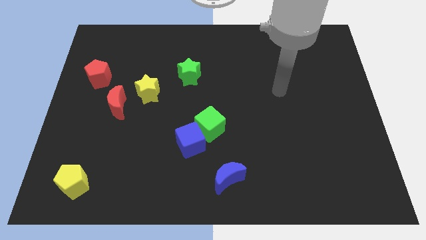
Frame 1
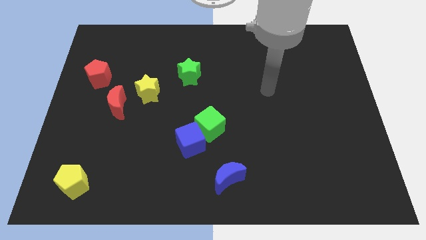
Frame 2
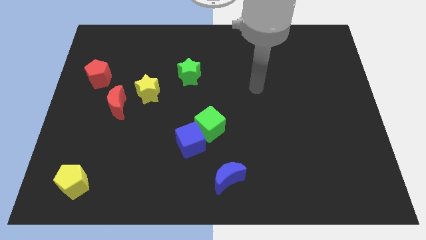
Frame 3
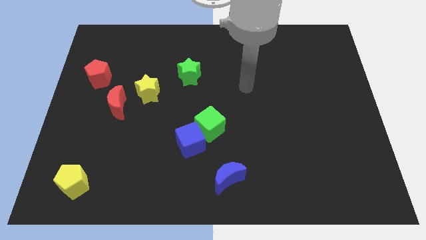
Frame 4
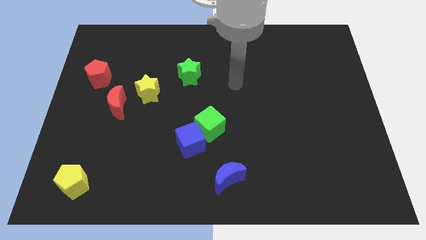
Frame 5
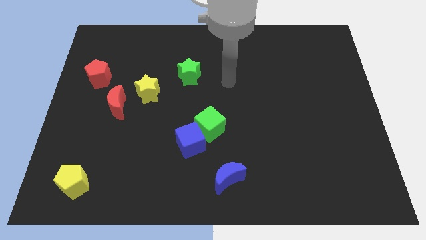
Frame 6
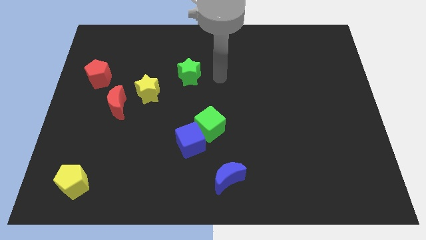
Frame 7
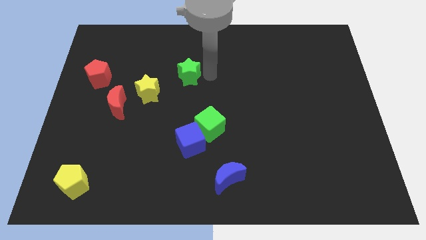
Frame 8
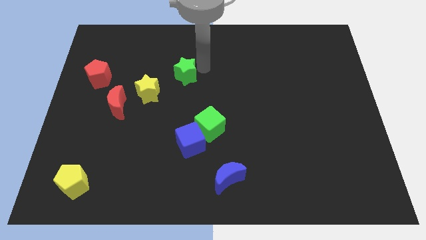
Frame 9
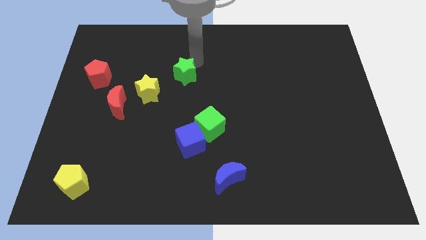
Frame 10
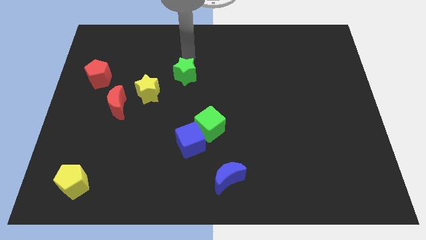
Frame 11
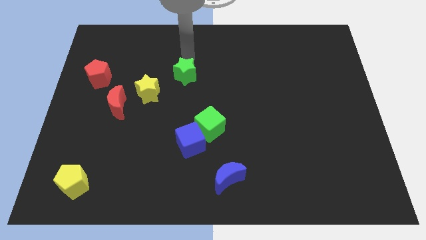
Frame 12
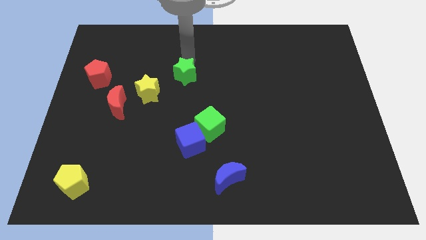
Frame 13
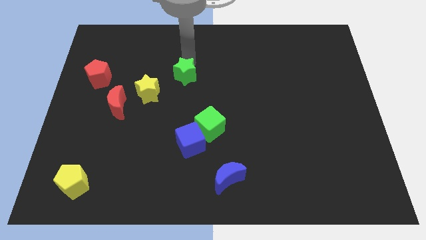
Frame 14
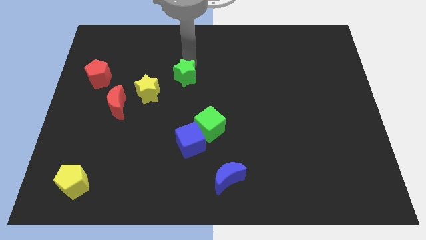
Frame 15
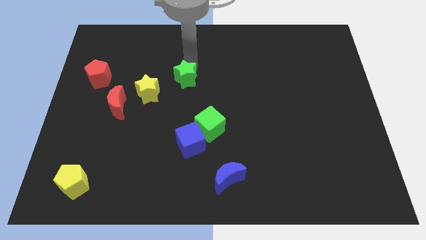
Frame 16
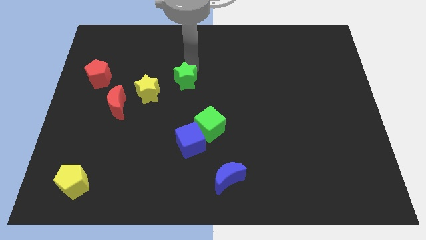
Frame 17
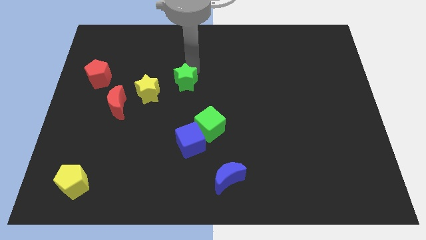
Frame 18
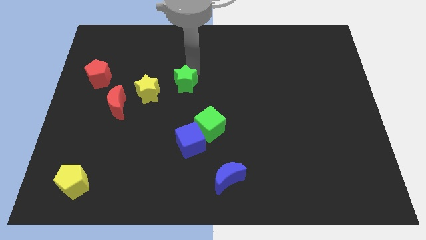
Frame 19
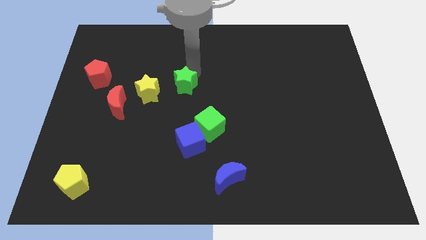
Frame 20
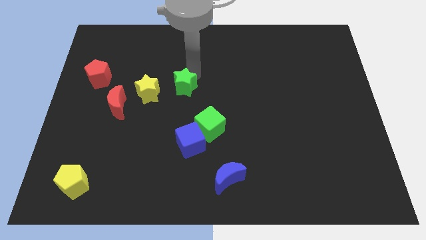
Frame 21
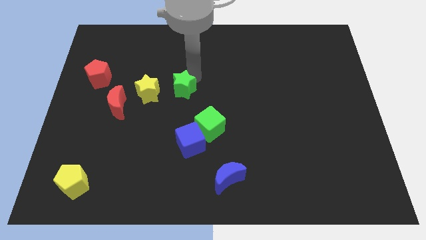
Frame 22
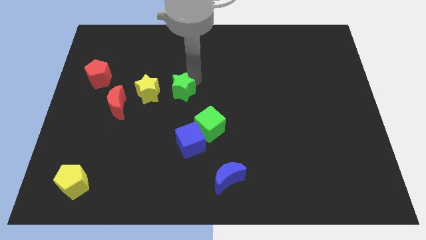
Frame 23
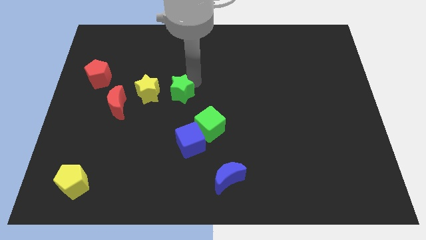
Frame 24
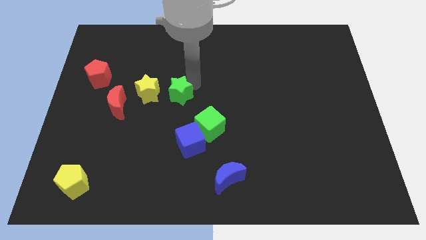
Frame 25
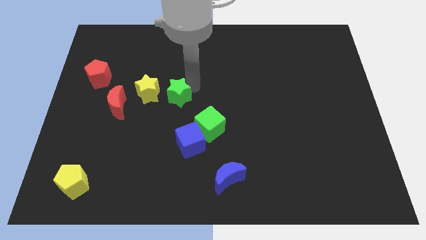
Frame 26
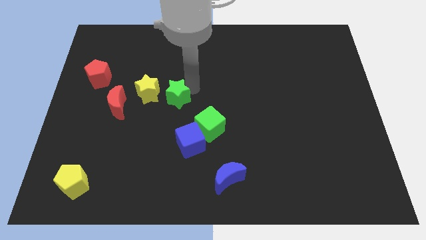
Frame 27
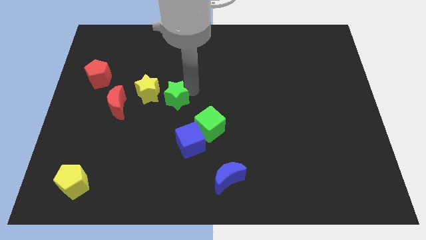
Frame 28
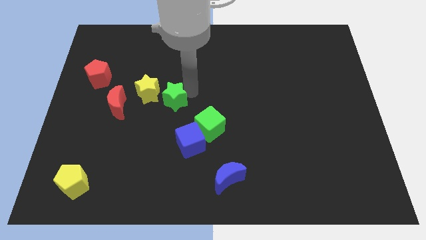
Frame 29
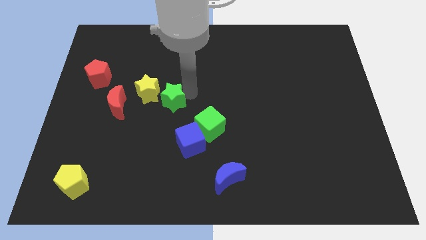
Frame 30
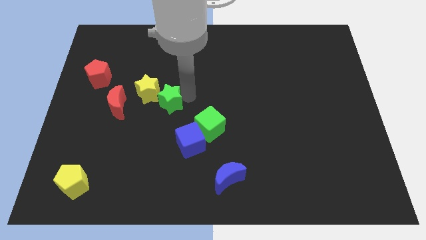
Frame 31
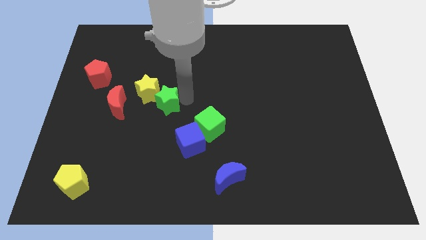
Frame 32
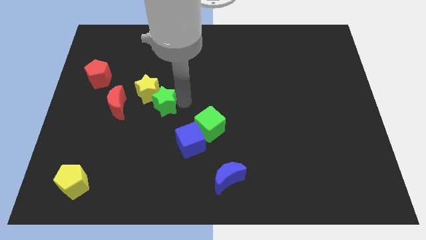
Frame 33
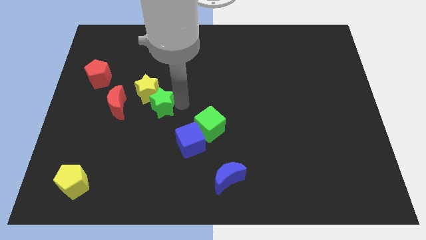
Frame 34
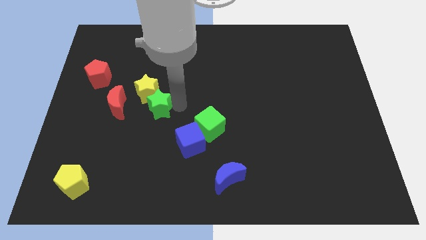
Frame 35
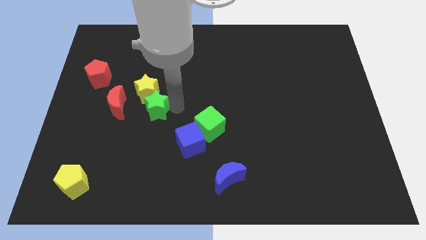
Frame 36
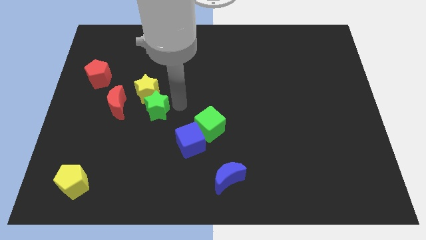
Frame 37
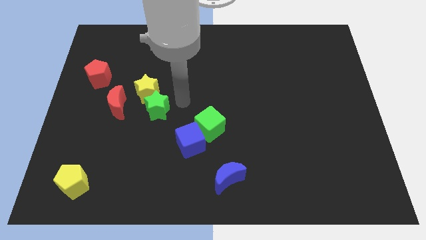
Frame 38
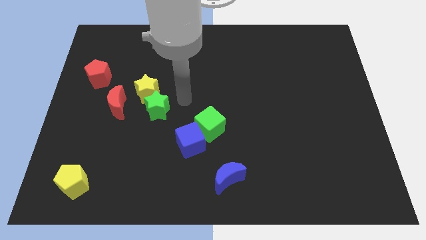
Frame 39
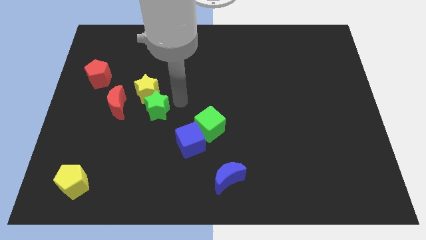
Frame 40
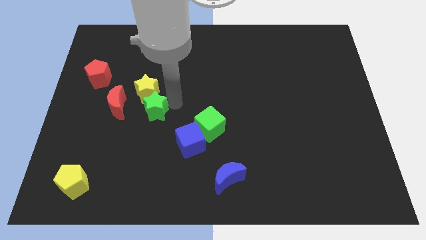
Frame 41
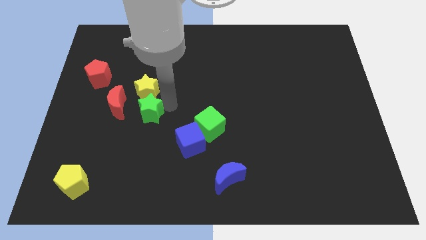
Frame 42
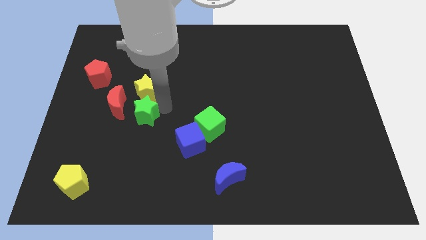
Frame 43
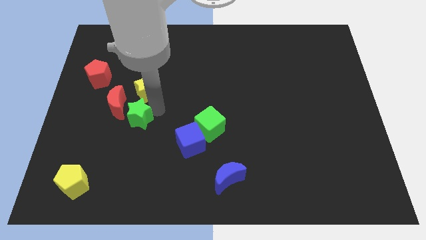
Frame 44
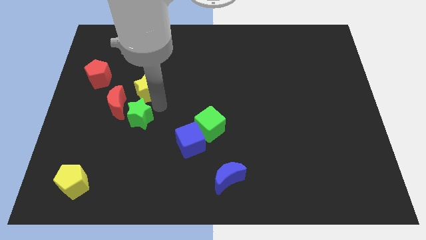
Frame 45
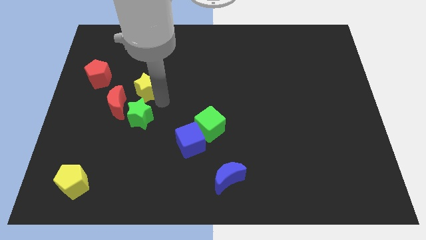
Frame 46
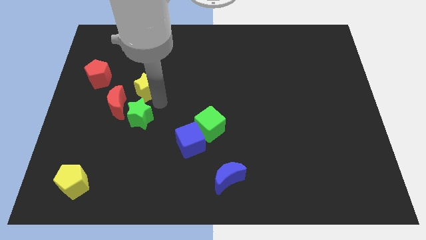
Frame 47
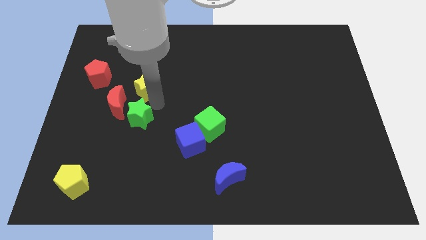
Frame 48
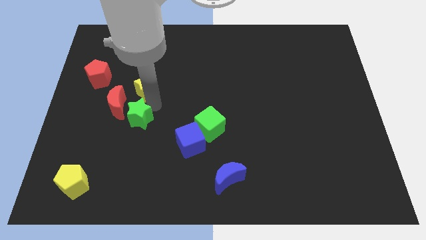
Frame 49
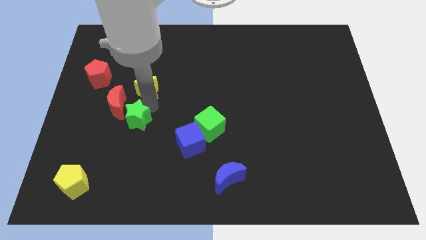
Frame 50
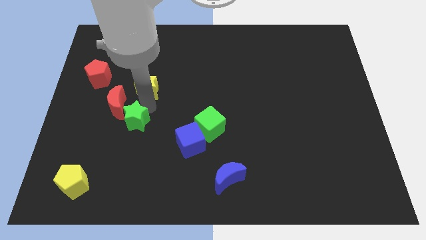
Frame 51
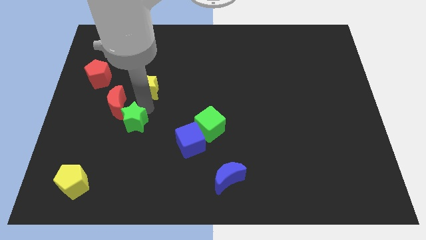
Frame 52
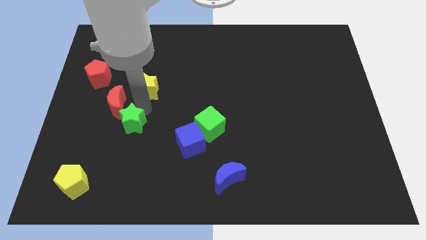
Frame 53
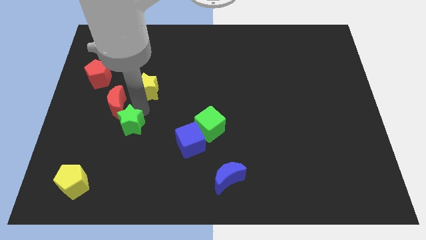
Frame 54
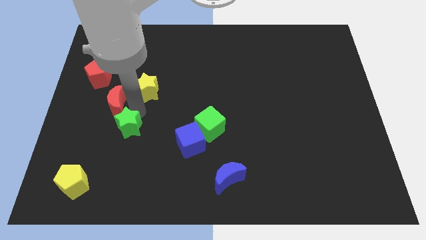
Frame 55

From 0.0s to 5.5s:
move the green star down and to the left

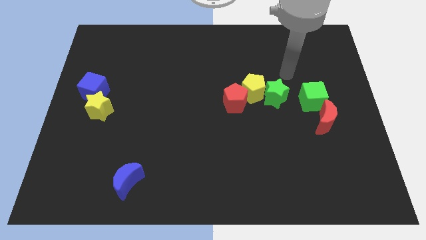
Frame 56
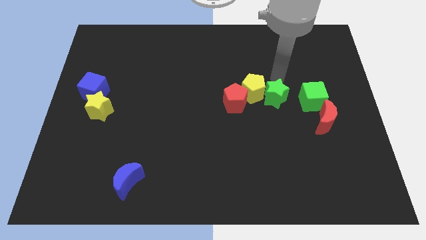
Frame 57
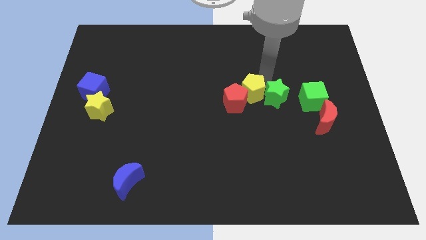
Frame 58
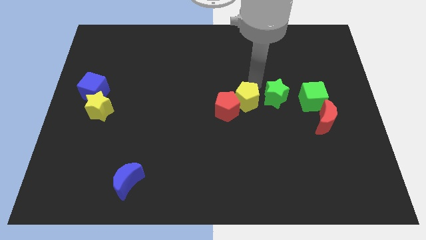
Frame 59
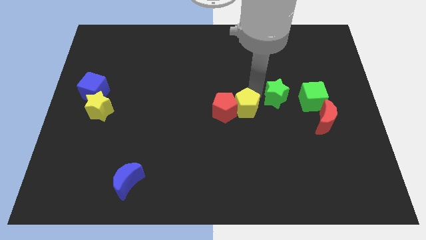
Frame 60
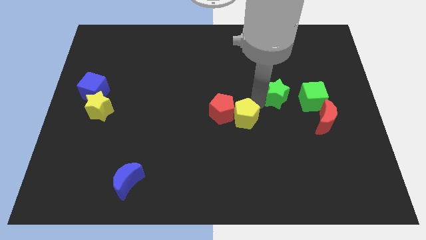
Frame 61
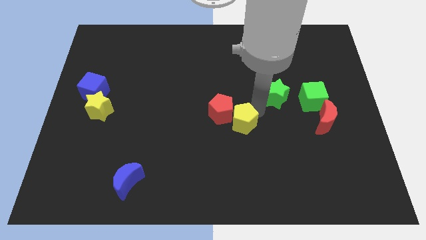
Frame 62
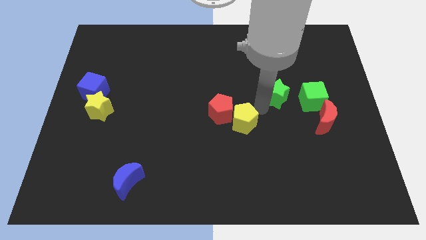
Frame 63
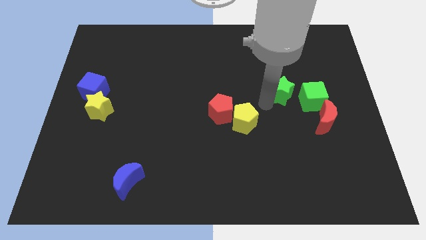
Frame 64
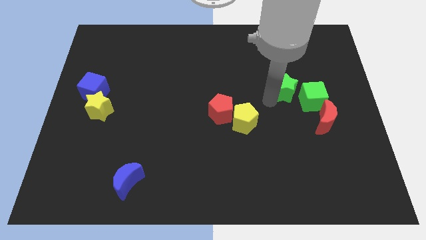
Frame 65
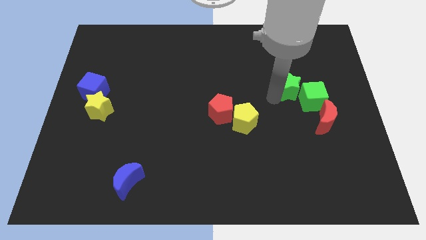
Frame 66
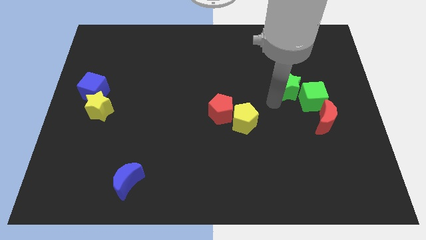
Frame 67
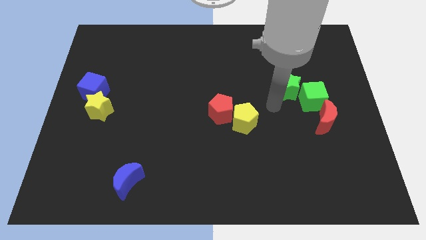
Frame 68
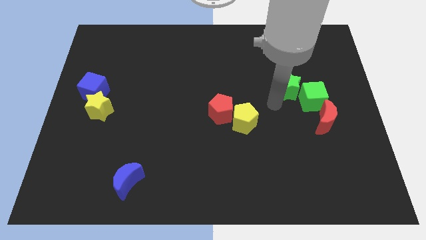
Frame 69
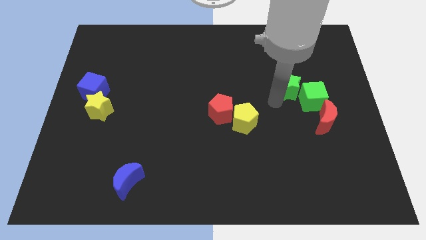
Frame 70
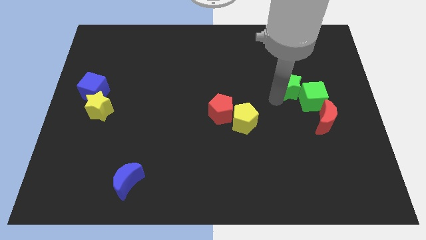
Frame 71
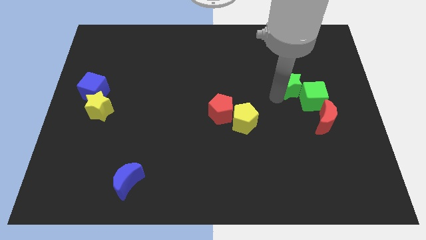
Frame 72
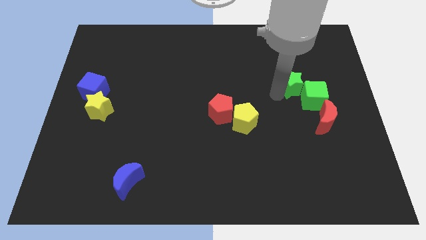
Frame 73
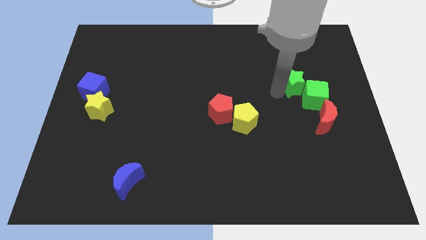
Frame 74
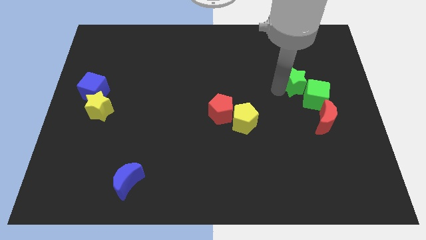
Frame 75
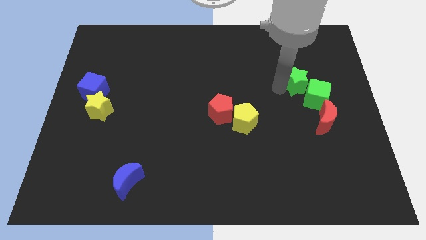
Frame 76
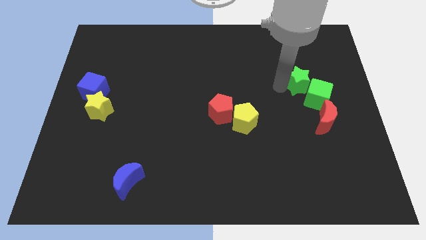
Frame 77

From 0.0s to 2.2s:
push the green star somewhat up and then to the right

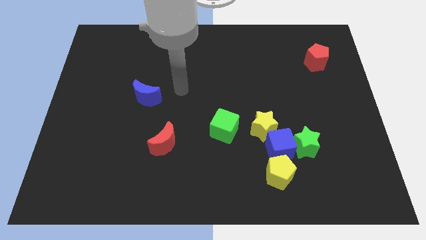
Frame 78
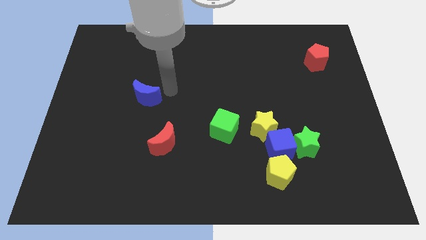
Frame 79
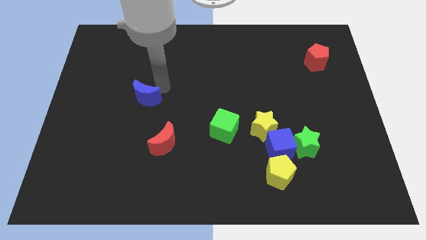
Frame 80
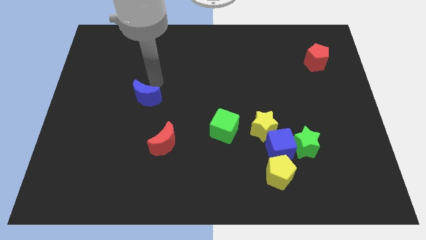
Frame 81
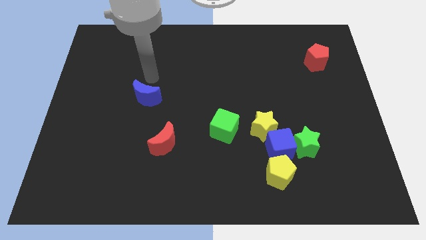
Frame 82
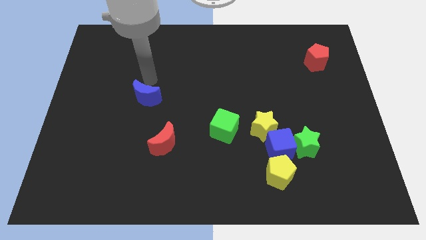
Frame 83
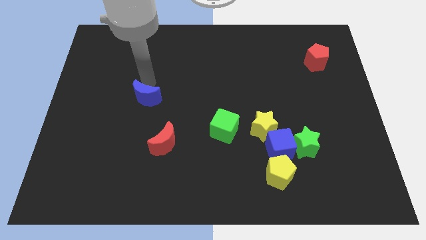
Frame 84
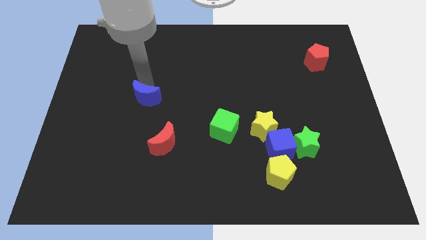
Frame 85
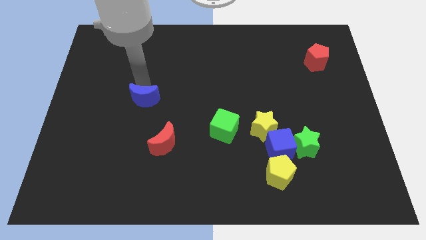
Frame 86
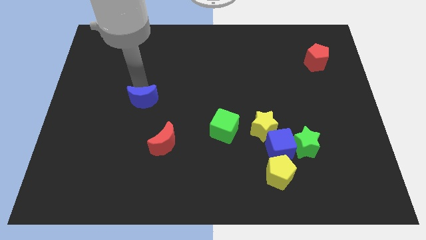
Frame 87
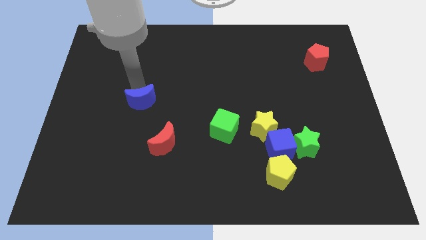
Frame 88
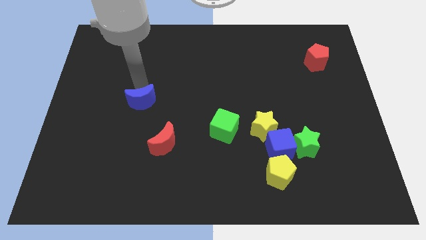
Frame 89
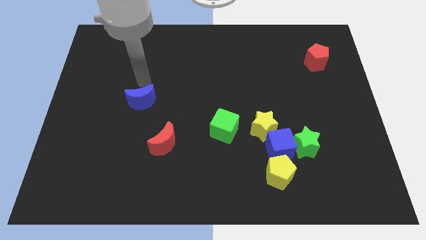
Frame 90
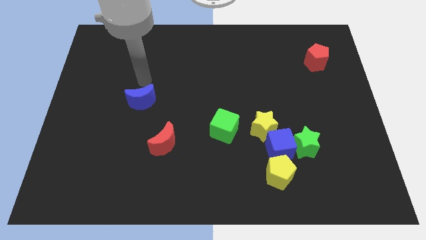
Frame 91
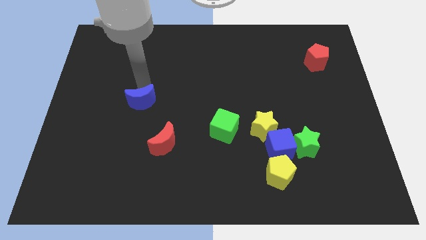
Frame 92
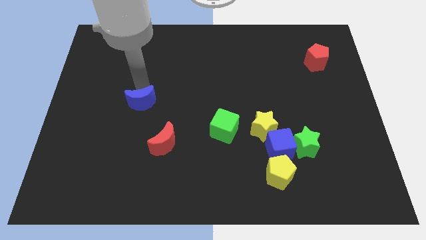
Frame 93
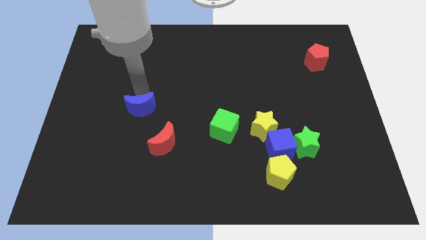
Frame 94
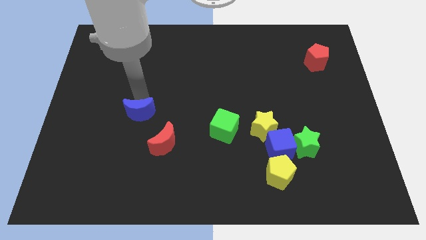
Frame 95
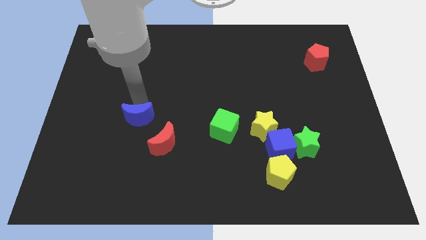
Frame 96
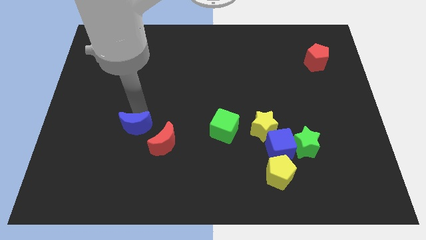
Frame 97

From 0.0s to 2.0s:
slide the blue moon downwards a little
